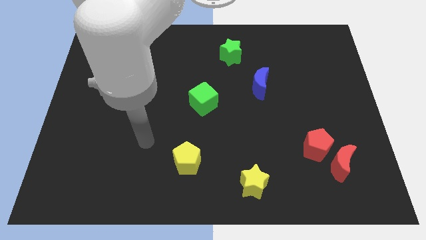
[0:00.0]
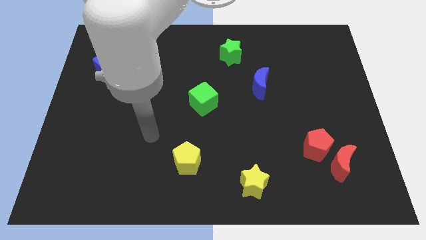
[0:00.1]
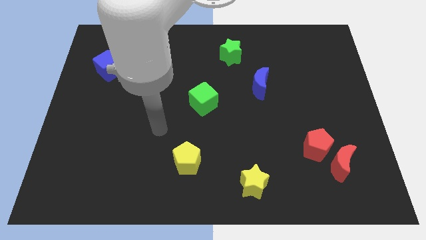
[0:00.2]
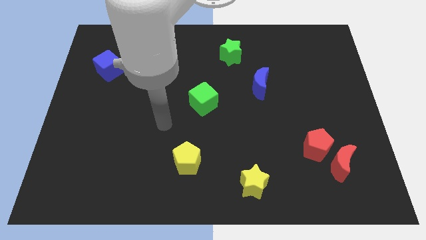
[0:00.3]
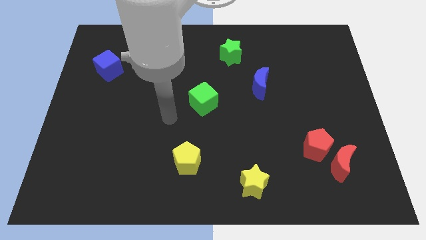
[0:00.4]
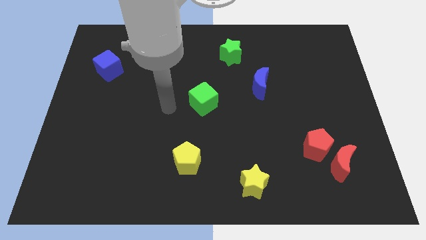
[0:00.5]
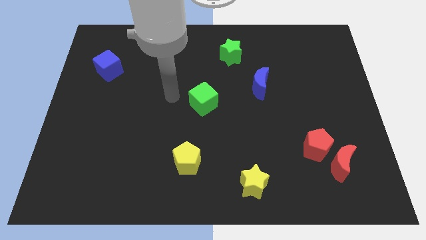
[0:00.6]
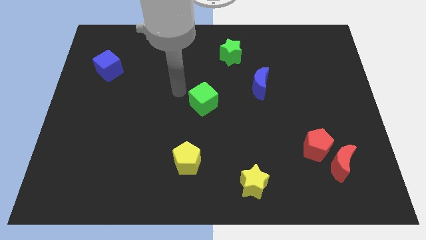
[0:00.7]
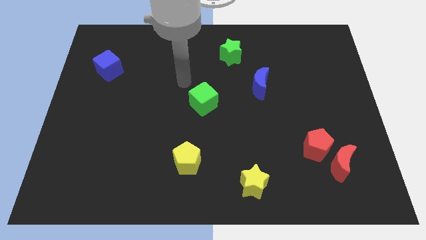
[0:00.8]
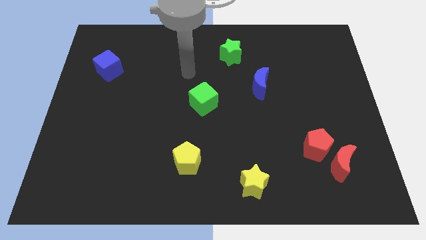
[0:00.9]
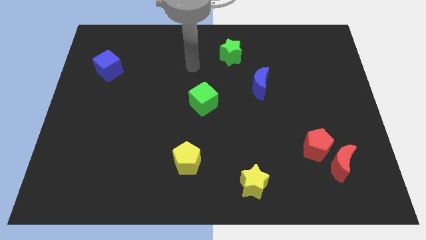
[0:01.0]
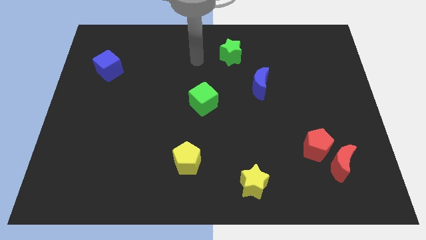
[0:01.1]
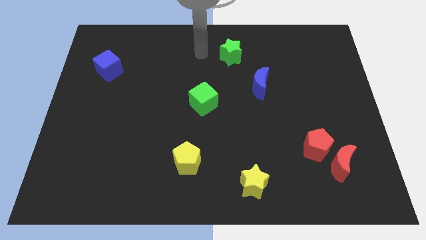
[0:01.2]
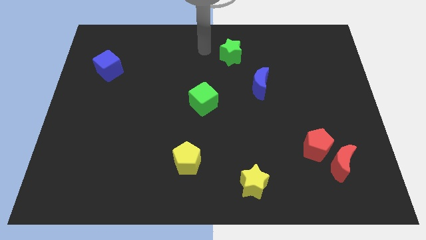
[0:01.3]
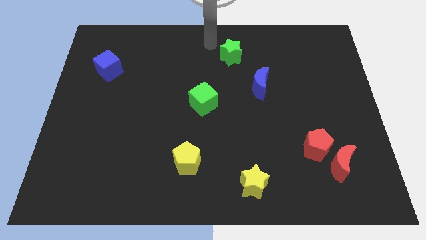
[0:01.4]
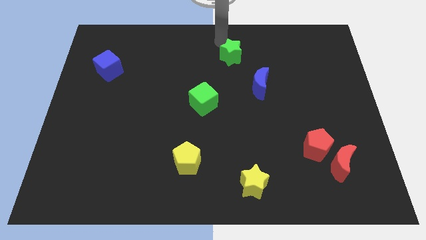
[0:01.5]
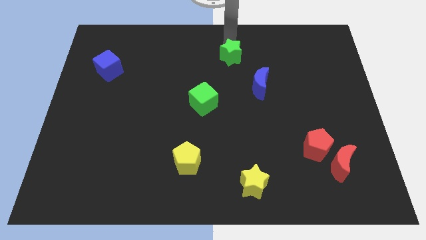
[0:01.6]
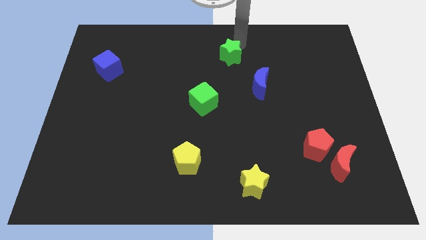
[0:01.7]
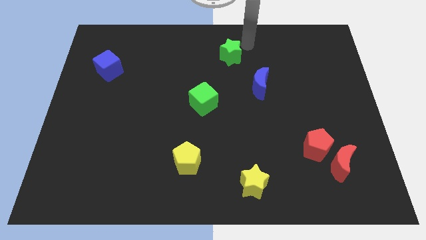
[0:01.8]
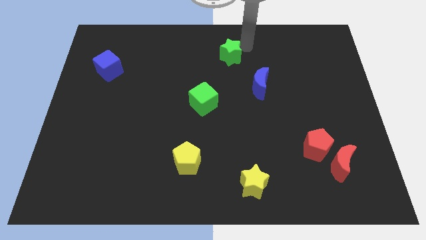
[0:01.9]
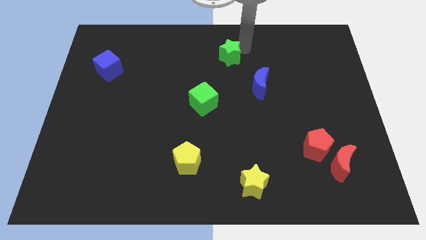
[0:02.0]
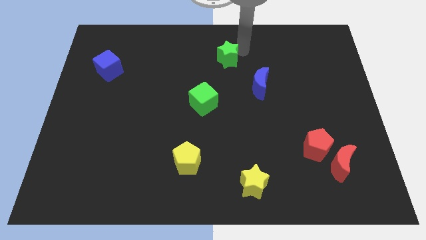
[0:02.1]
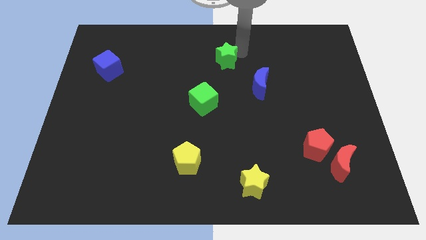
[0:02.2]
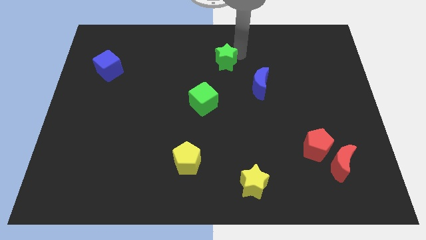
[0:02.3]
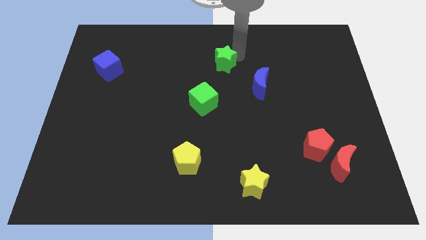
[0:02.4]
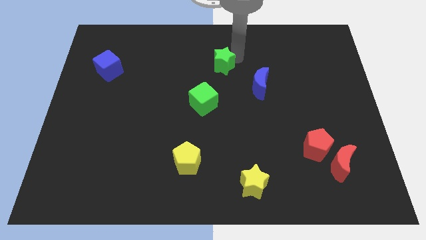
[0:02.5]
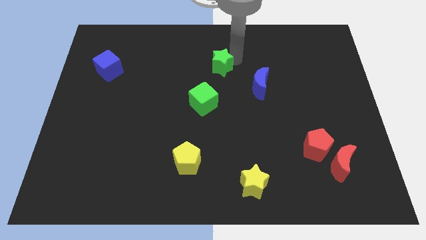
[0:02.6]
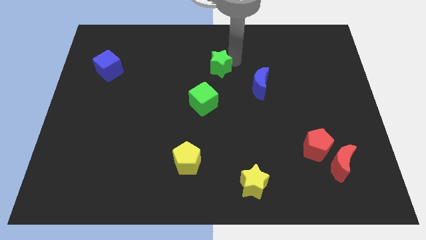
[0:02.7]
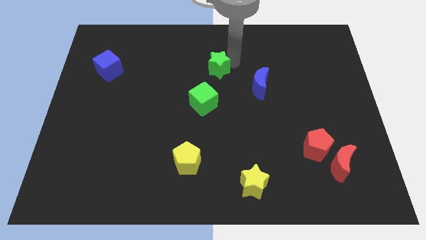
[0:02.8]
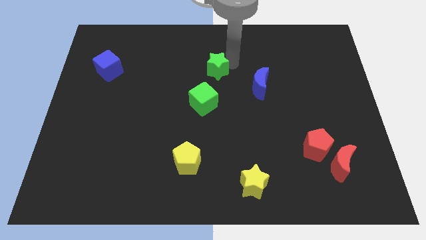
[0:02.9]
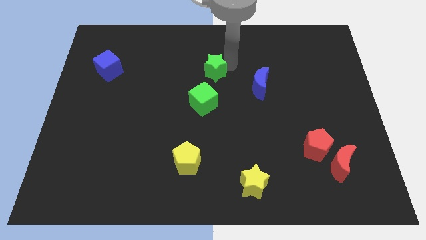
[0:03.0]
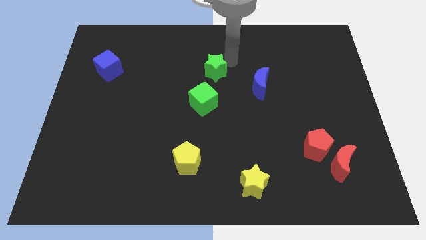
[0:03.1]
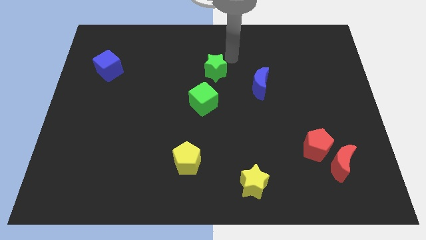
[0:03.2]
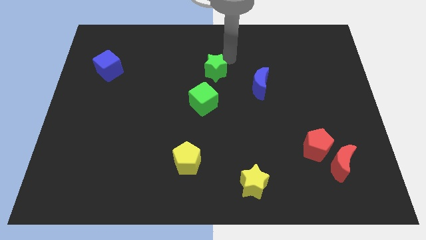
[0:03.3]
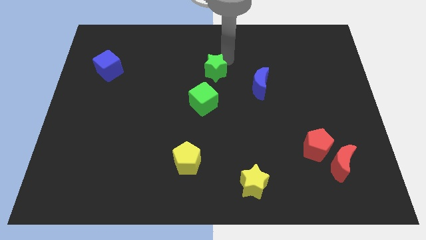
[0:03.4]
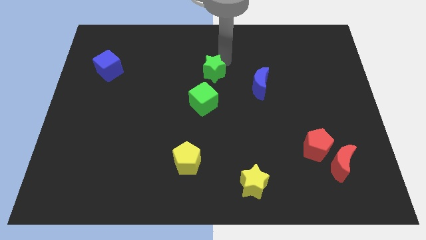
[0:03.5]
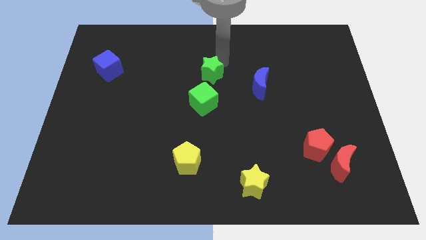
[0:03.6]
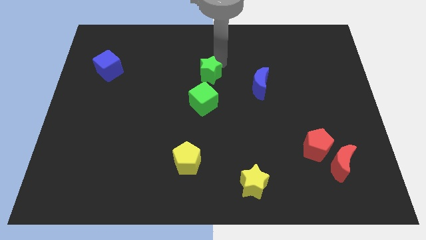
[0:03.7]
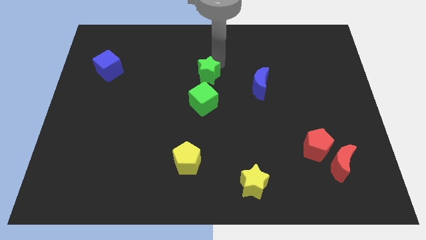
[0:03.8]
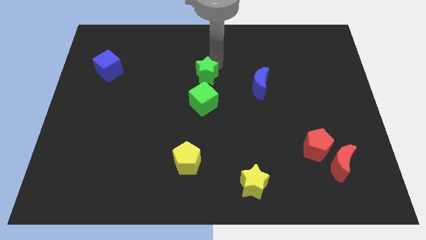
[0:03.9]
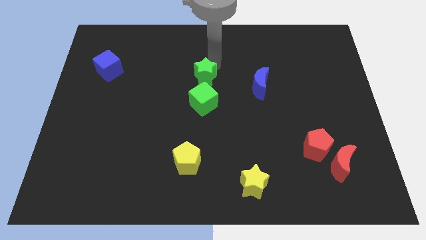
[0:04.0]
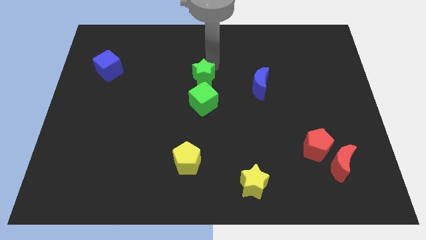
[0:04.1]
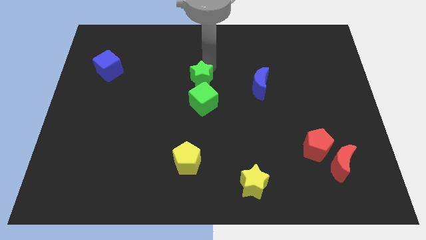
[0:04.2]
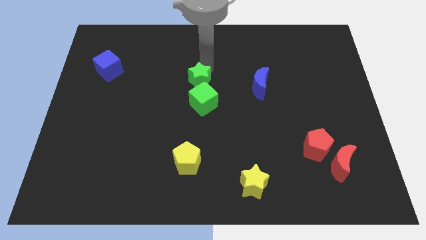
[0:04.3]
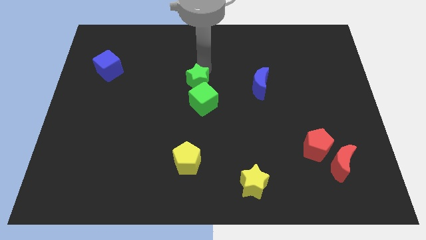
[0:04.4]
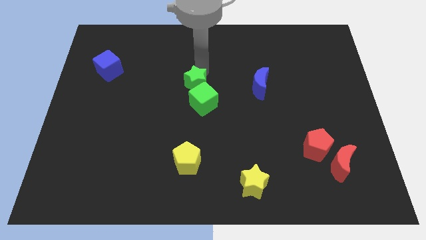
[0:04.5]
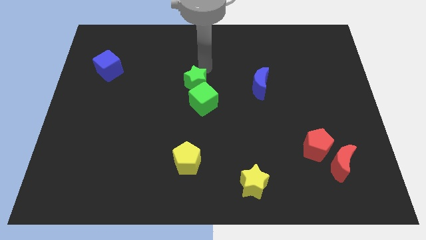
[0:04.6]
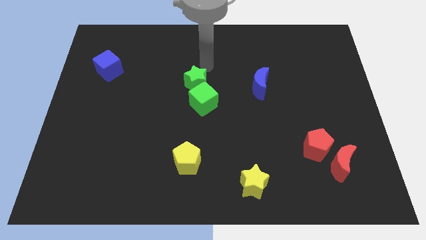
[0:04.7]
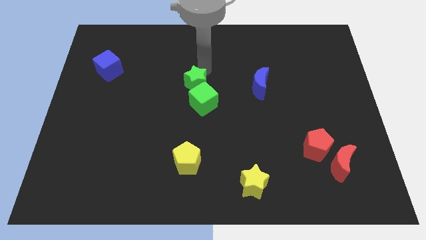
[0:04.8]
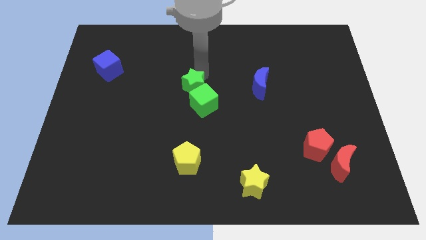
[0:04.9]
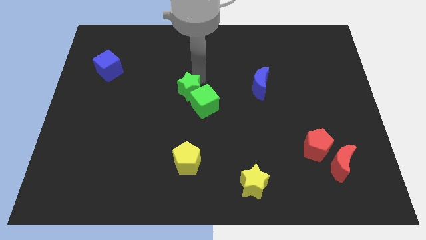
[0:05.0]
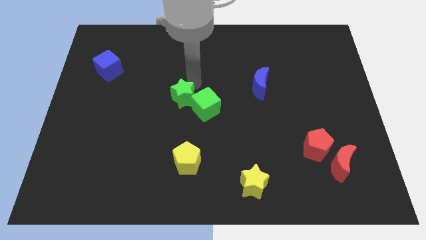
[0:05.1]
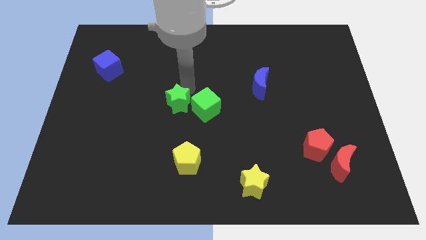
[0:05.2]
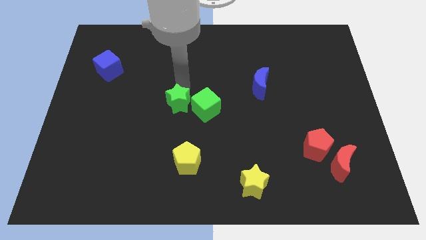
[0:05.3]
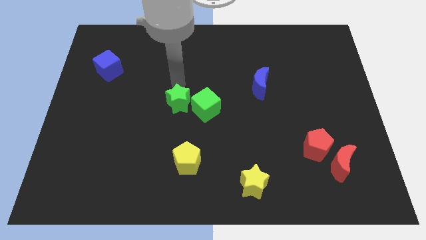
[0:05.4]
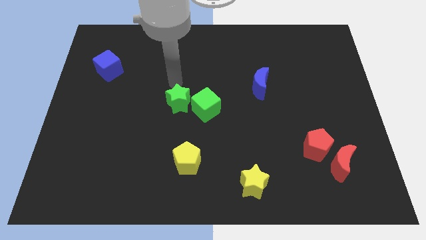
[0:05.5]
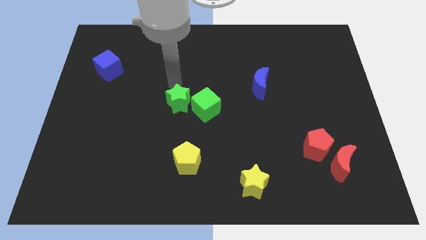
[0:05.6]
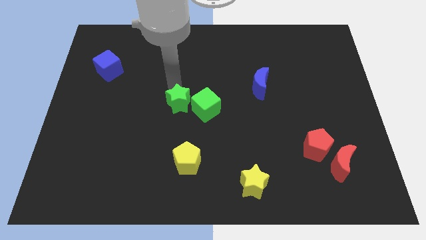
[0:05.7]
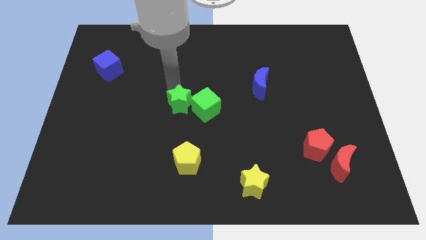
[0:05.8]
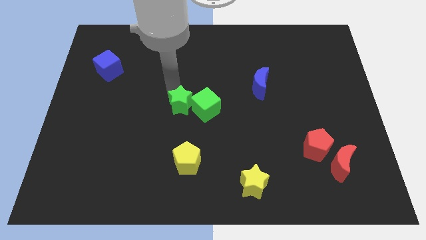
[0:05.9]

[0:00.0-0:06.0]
slide the green star diagonally down and to the left of the green cube

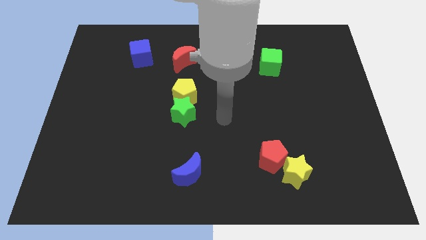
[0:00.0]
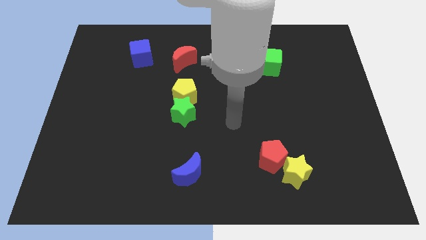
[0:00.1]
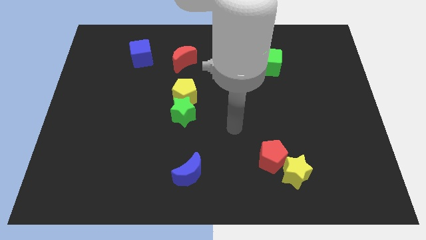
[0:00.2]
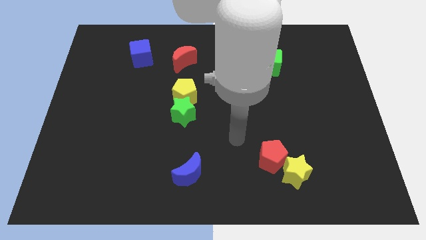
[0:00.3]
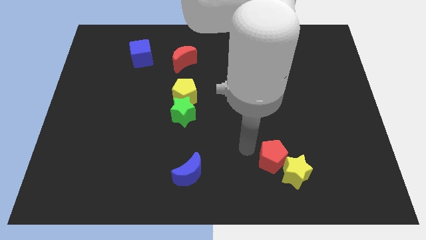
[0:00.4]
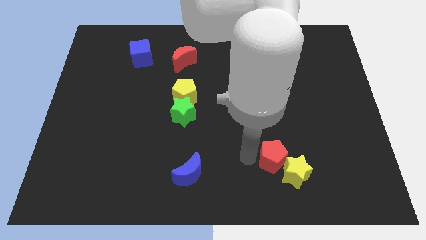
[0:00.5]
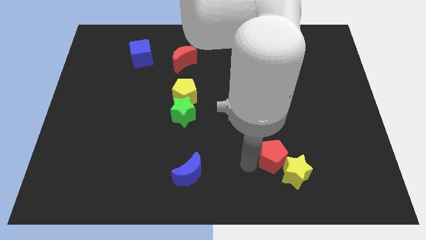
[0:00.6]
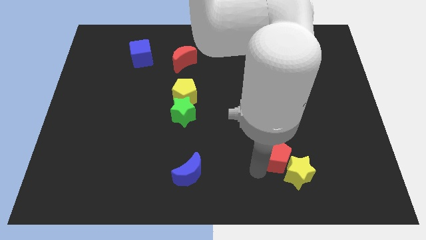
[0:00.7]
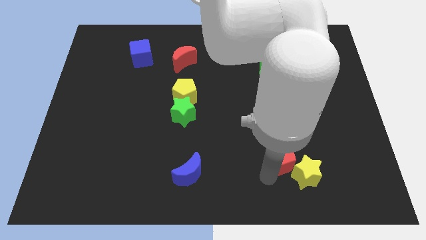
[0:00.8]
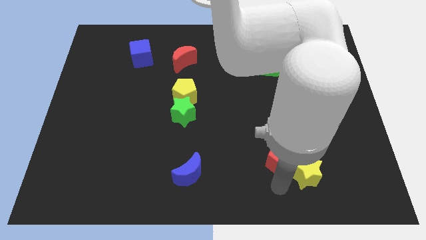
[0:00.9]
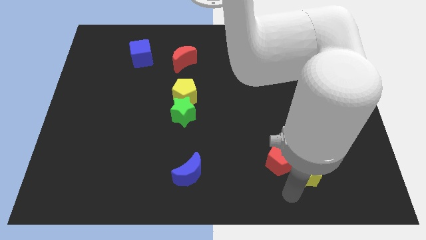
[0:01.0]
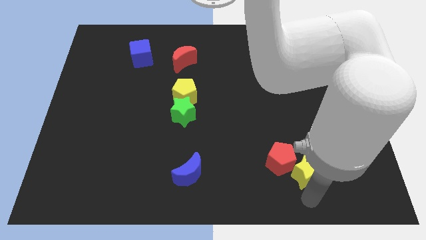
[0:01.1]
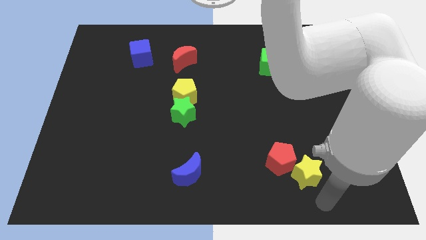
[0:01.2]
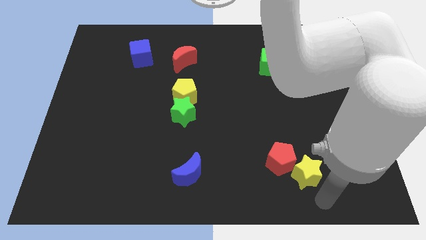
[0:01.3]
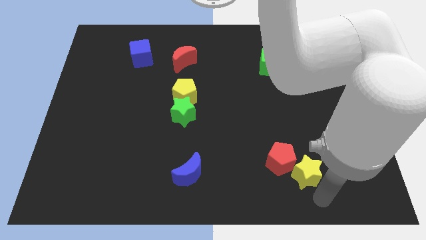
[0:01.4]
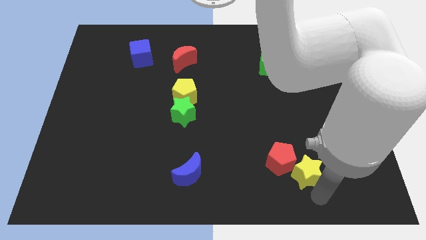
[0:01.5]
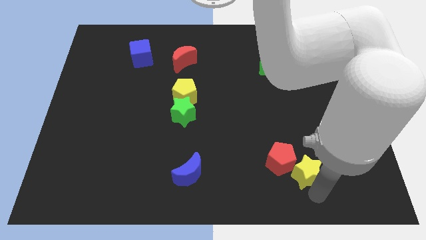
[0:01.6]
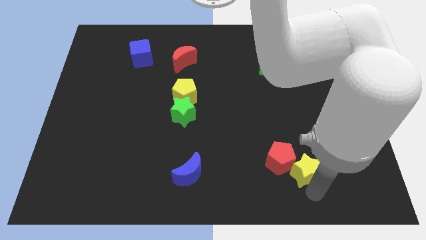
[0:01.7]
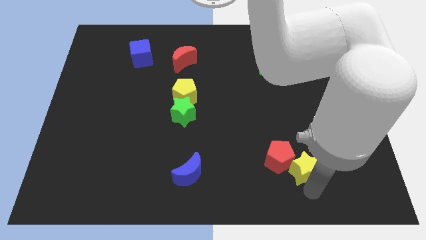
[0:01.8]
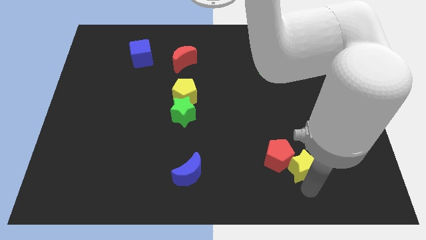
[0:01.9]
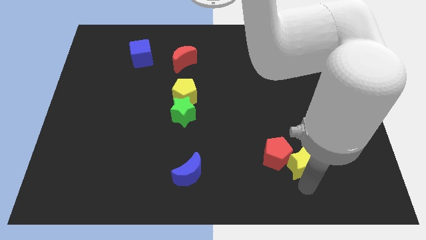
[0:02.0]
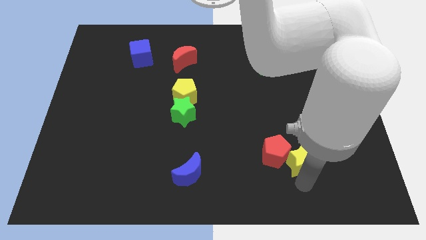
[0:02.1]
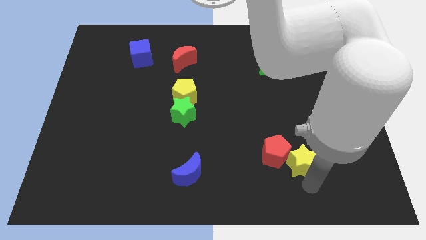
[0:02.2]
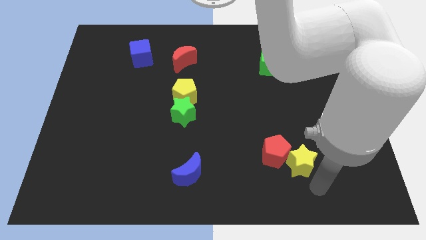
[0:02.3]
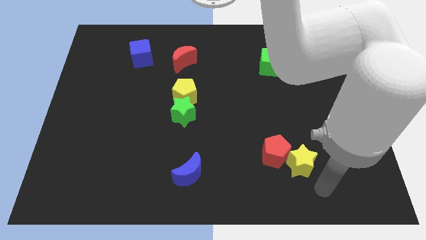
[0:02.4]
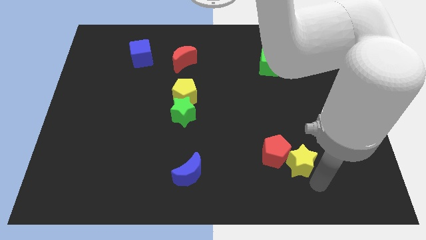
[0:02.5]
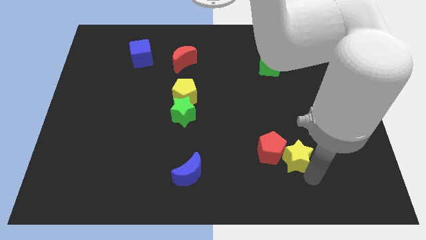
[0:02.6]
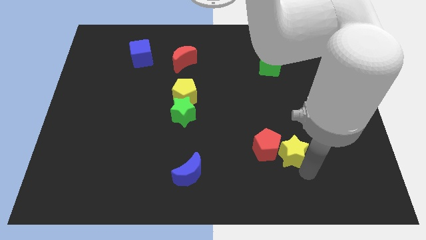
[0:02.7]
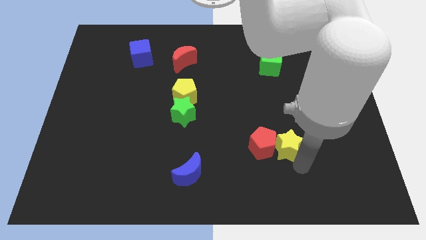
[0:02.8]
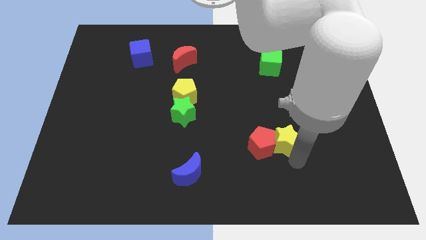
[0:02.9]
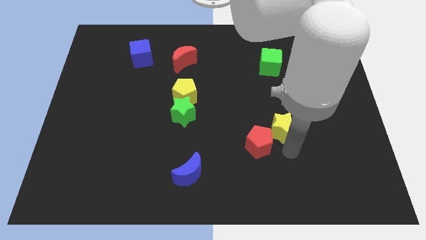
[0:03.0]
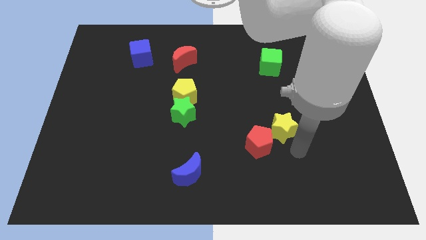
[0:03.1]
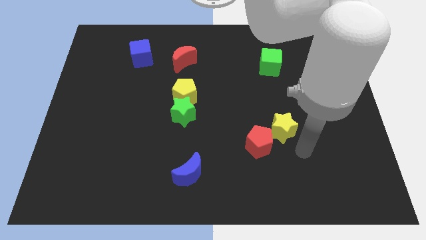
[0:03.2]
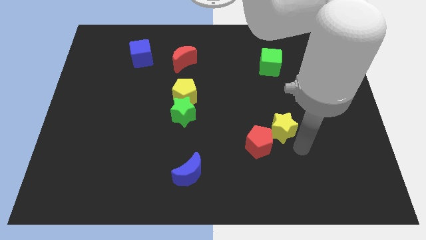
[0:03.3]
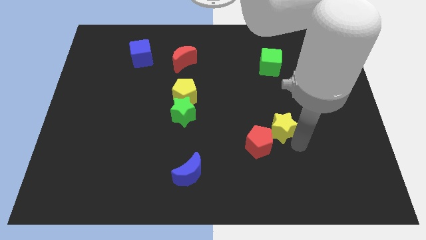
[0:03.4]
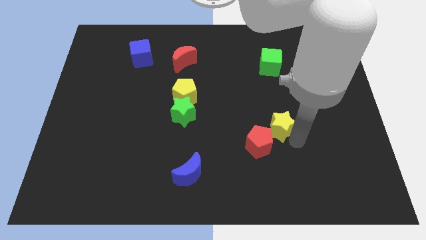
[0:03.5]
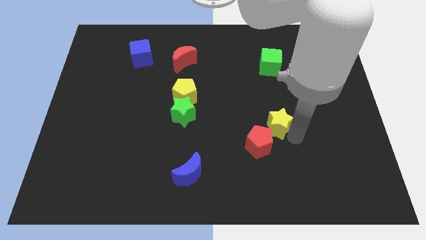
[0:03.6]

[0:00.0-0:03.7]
slide the yellow star to the top of the red pentagon
